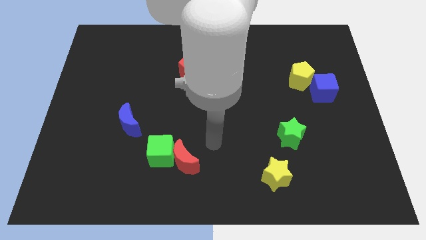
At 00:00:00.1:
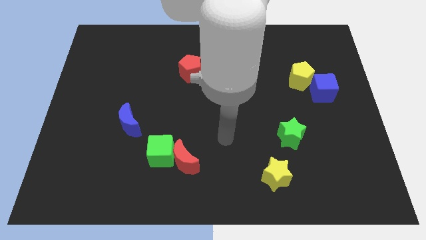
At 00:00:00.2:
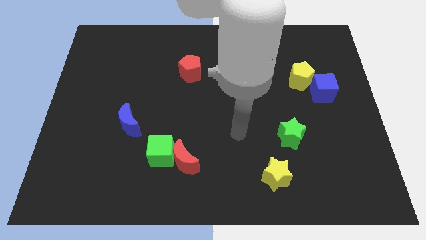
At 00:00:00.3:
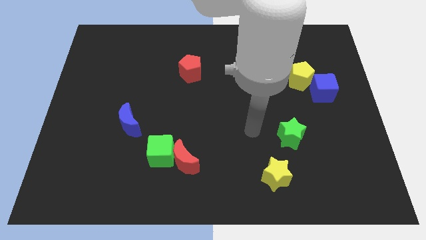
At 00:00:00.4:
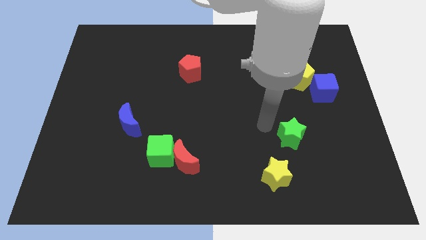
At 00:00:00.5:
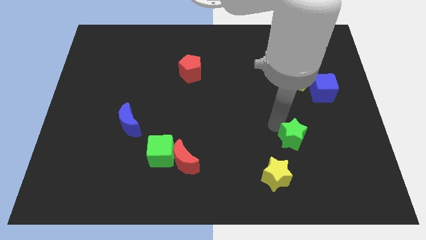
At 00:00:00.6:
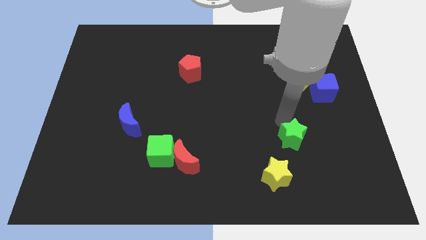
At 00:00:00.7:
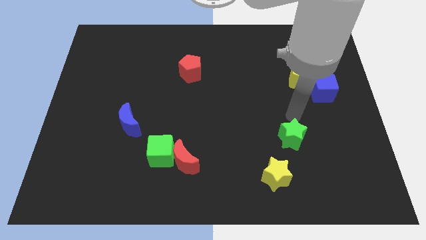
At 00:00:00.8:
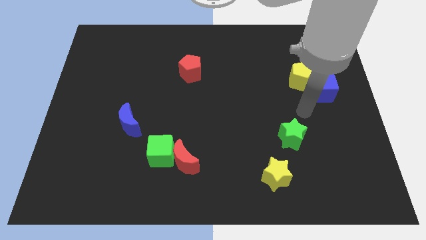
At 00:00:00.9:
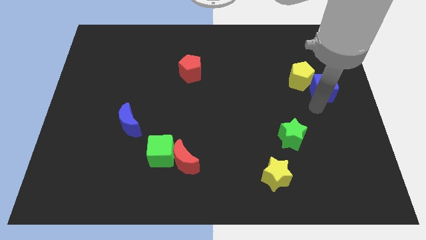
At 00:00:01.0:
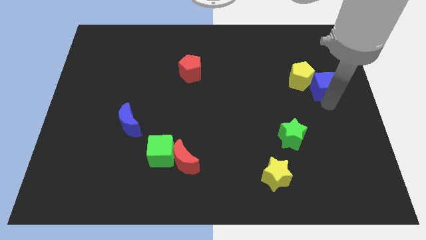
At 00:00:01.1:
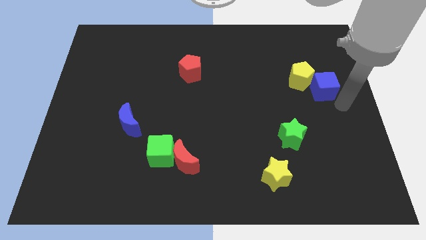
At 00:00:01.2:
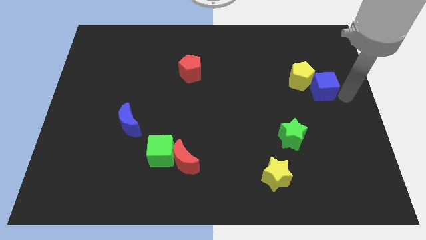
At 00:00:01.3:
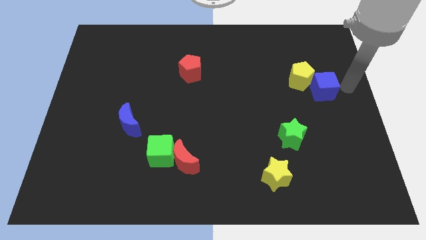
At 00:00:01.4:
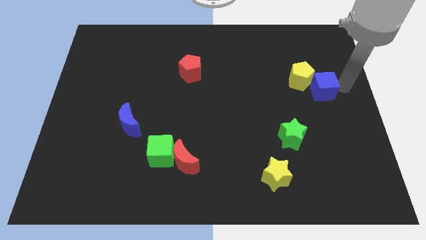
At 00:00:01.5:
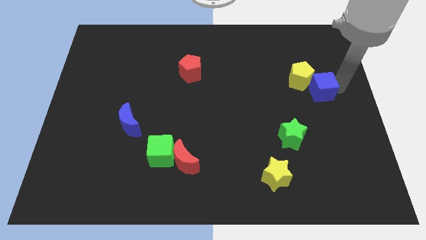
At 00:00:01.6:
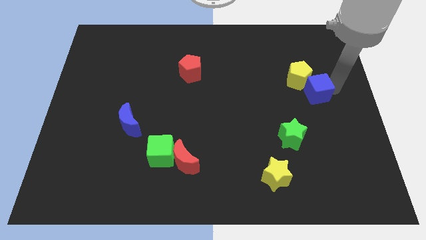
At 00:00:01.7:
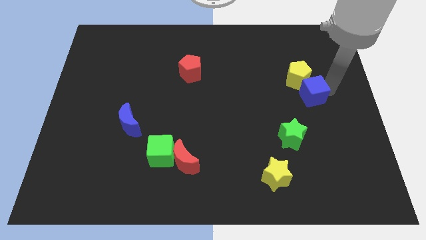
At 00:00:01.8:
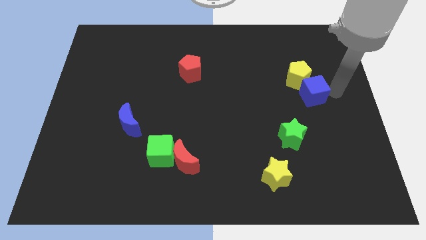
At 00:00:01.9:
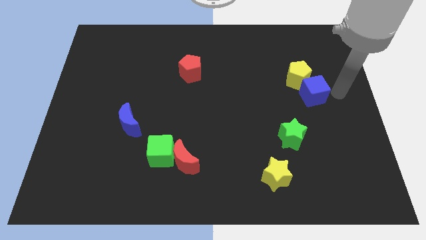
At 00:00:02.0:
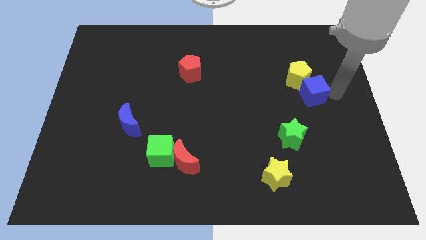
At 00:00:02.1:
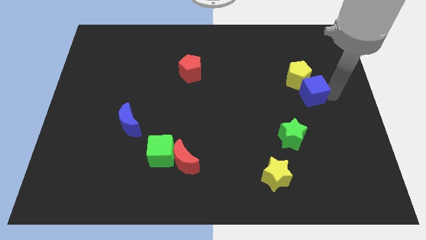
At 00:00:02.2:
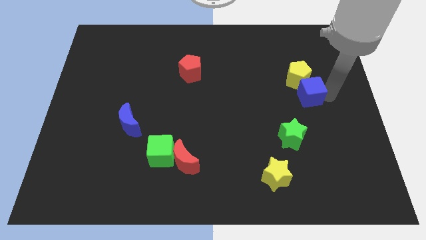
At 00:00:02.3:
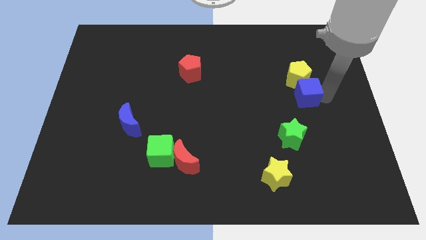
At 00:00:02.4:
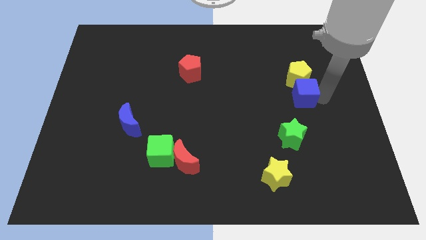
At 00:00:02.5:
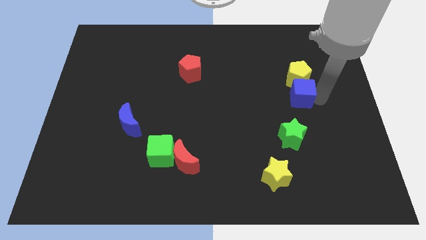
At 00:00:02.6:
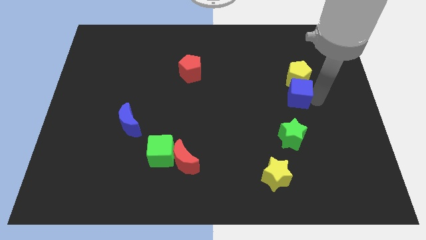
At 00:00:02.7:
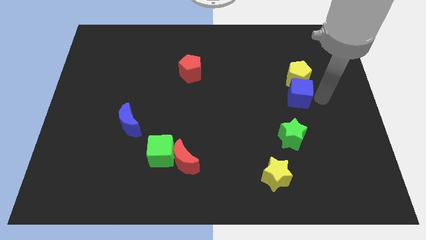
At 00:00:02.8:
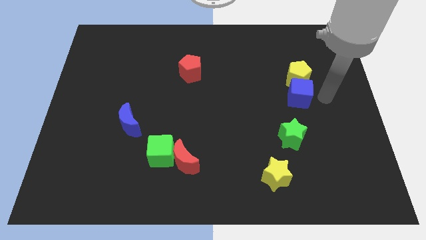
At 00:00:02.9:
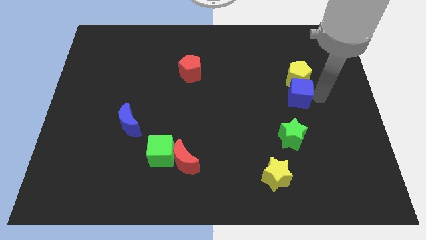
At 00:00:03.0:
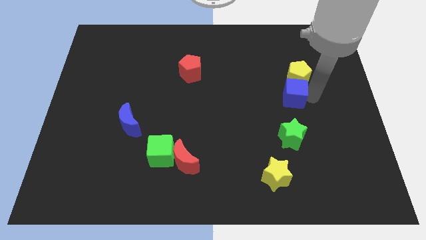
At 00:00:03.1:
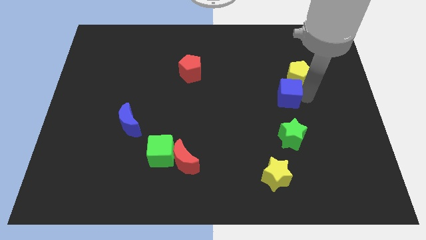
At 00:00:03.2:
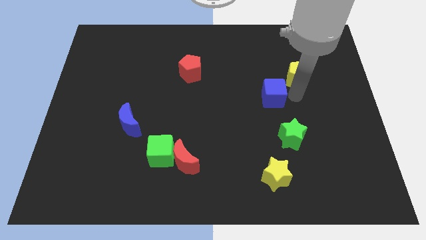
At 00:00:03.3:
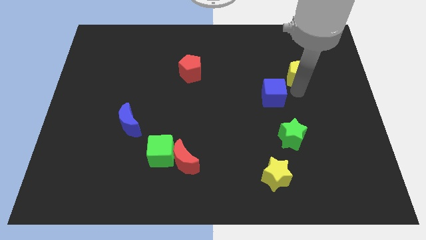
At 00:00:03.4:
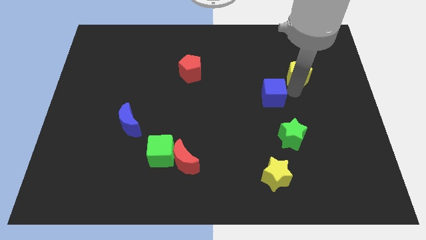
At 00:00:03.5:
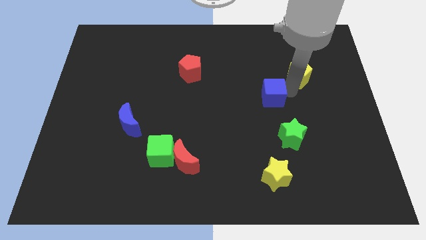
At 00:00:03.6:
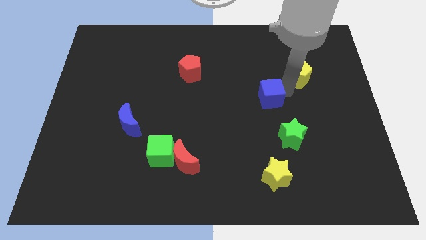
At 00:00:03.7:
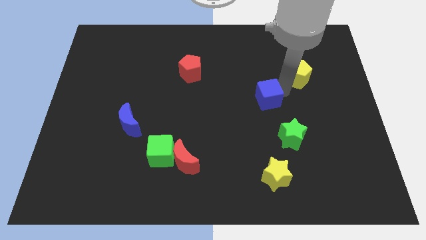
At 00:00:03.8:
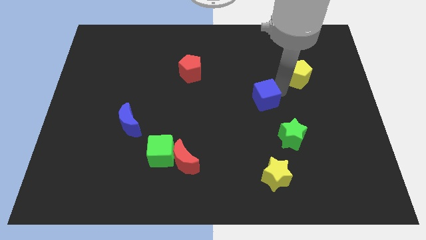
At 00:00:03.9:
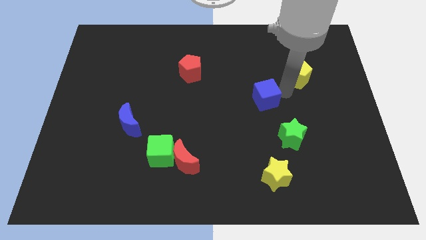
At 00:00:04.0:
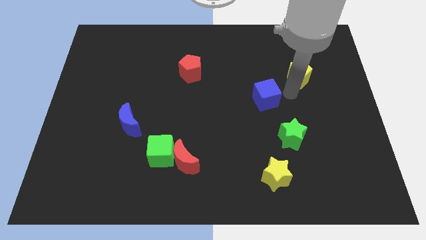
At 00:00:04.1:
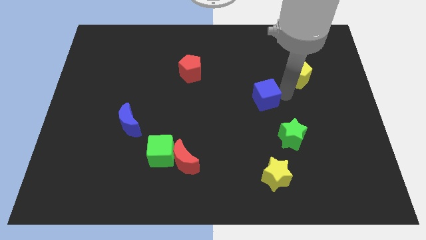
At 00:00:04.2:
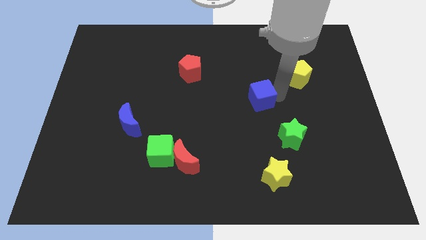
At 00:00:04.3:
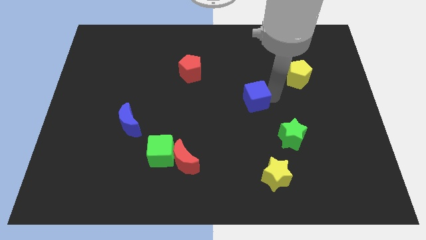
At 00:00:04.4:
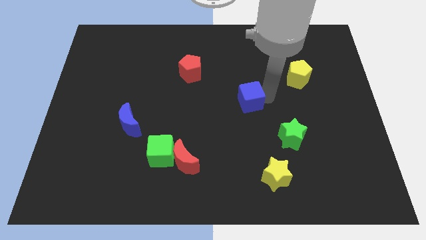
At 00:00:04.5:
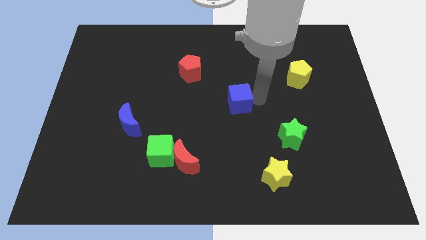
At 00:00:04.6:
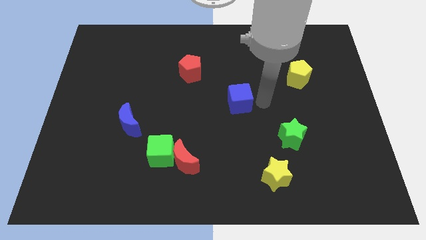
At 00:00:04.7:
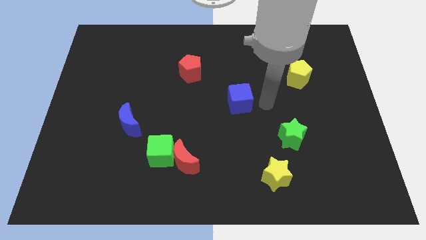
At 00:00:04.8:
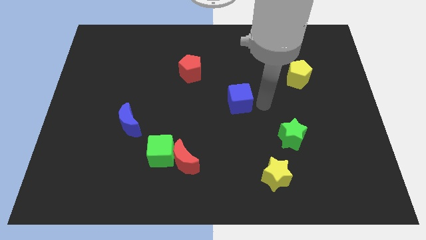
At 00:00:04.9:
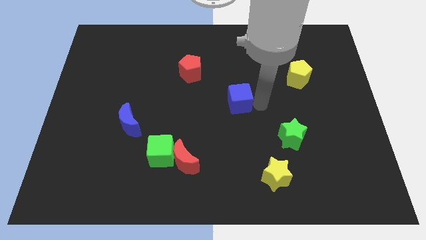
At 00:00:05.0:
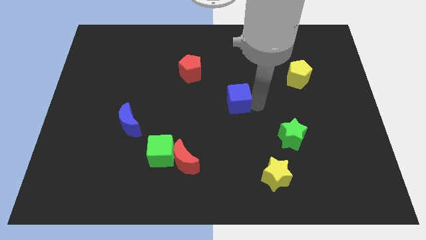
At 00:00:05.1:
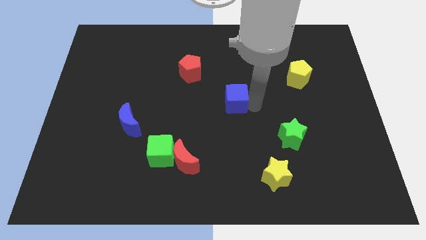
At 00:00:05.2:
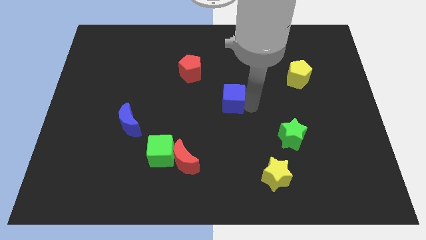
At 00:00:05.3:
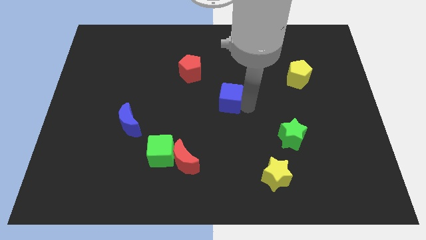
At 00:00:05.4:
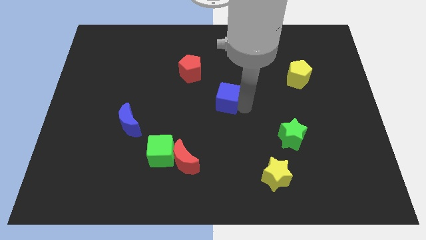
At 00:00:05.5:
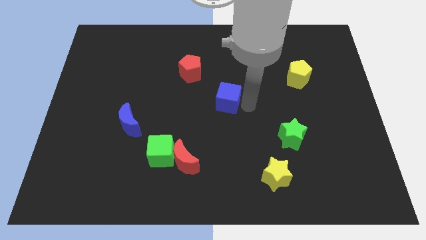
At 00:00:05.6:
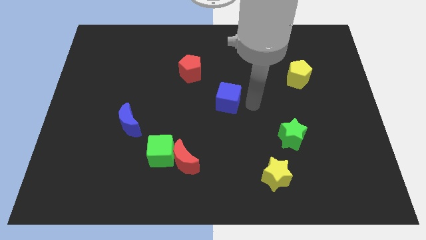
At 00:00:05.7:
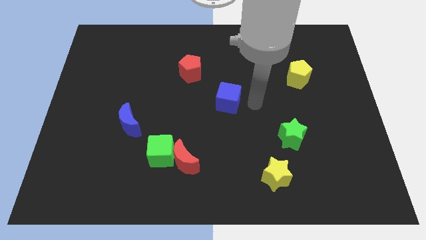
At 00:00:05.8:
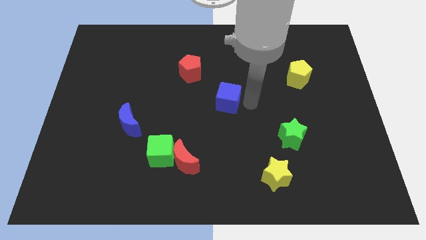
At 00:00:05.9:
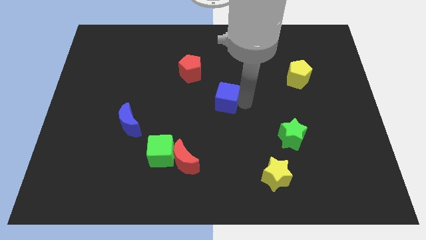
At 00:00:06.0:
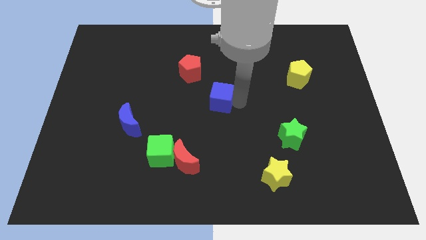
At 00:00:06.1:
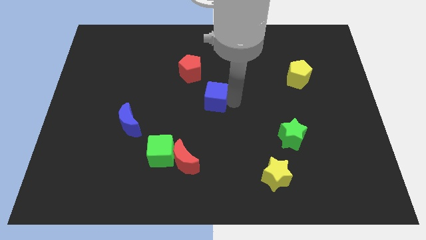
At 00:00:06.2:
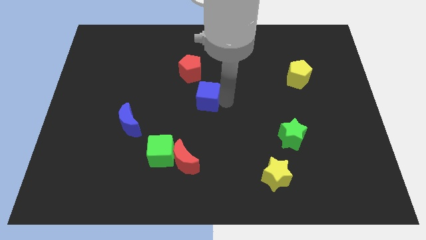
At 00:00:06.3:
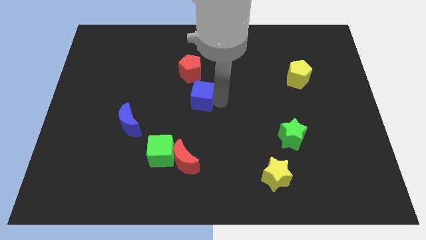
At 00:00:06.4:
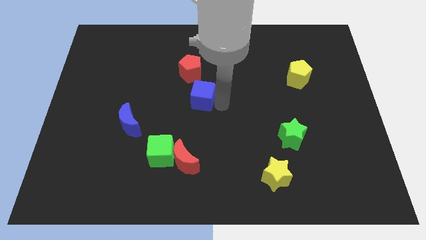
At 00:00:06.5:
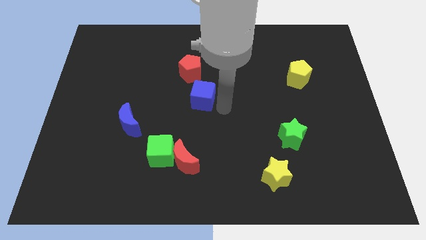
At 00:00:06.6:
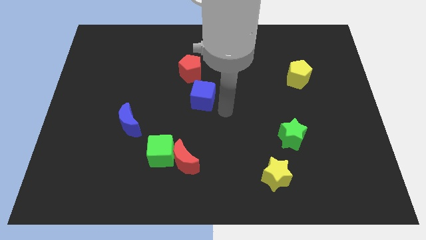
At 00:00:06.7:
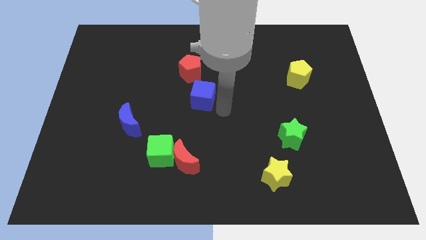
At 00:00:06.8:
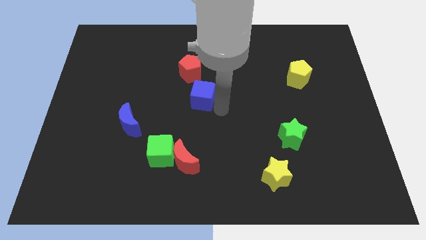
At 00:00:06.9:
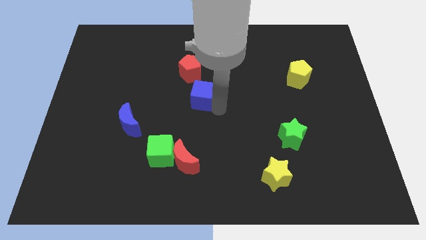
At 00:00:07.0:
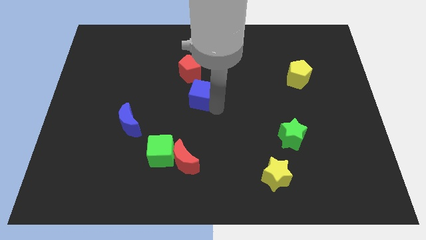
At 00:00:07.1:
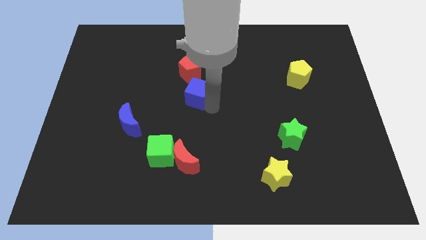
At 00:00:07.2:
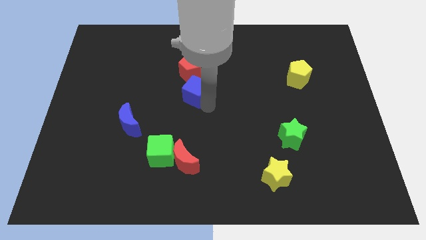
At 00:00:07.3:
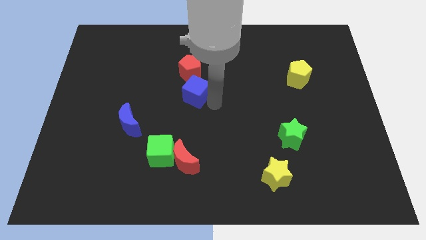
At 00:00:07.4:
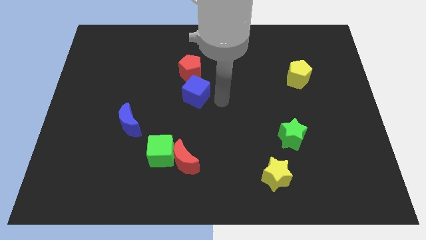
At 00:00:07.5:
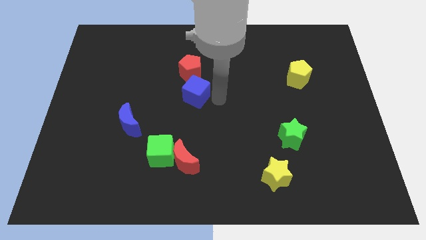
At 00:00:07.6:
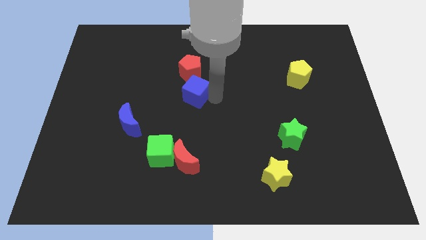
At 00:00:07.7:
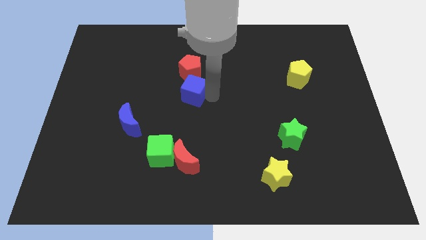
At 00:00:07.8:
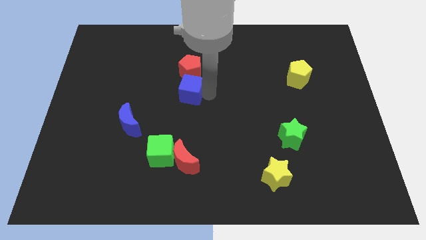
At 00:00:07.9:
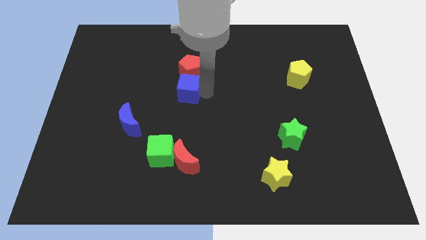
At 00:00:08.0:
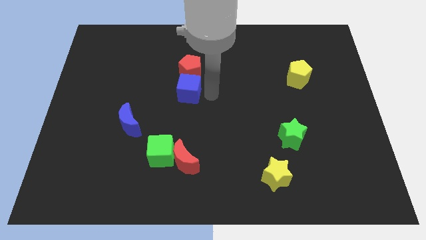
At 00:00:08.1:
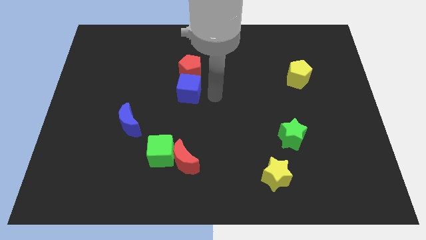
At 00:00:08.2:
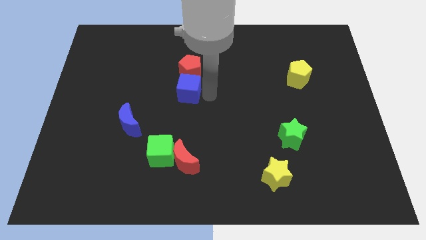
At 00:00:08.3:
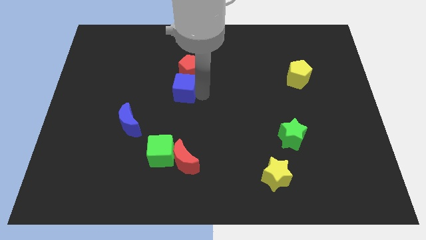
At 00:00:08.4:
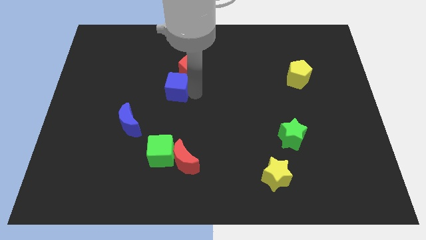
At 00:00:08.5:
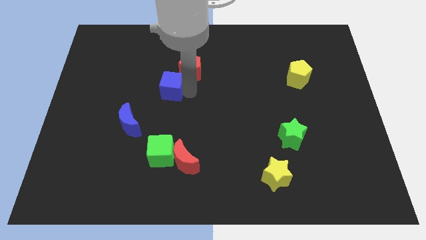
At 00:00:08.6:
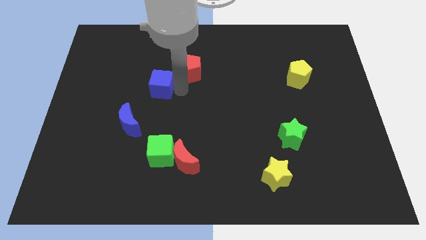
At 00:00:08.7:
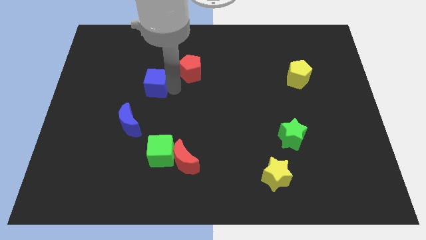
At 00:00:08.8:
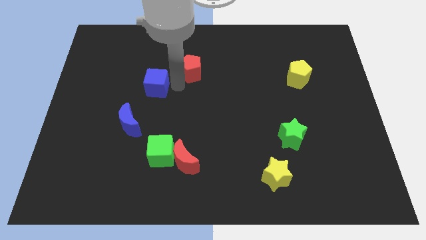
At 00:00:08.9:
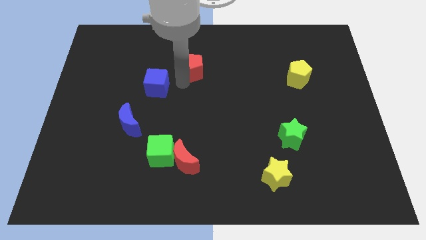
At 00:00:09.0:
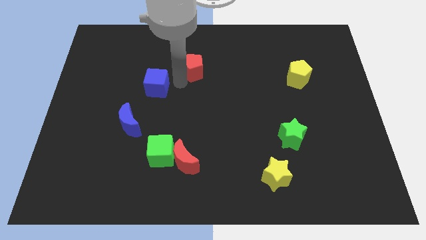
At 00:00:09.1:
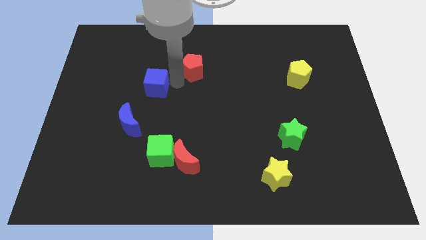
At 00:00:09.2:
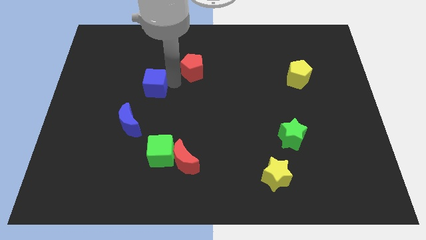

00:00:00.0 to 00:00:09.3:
move the blue cube to the top side of the blue moon
